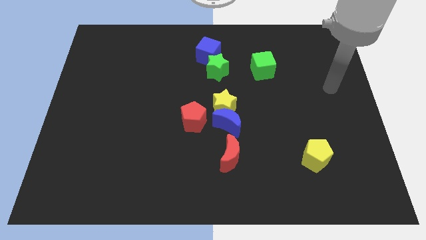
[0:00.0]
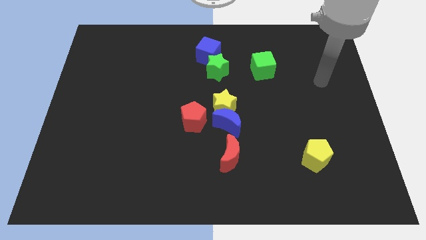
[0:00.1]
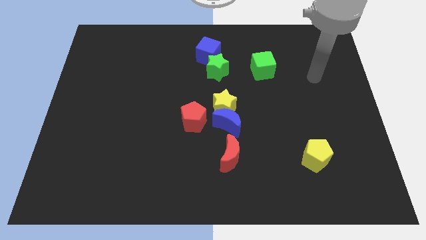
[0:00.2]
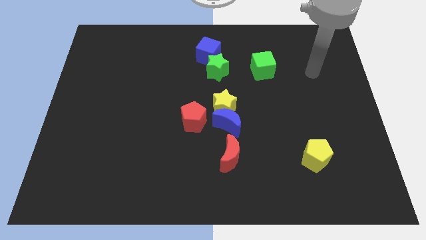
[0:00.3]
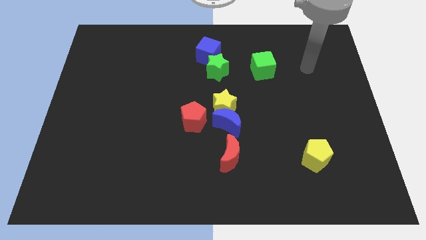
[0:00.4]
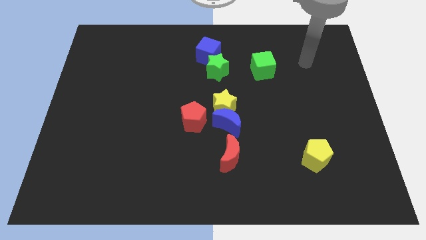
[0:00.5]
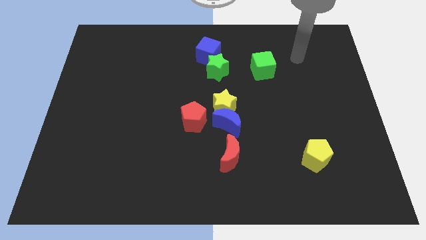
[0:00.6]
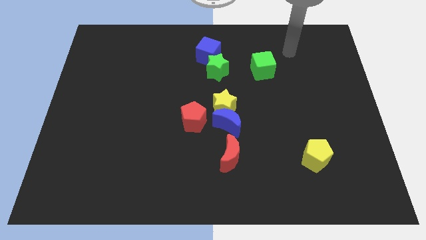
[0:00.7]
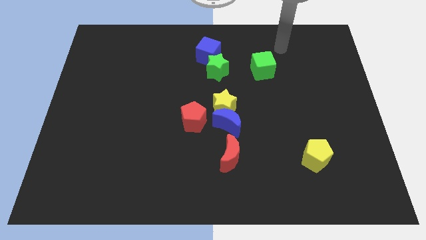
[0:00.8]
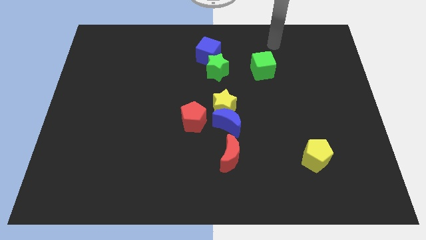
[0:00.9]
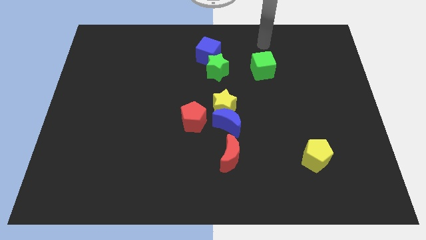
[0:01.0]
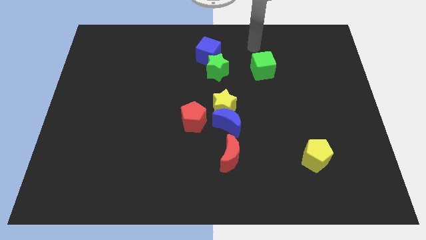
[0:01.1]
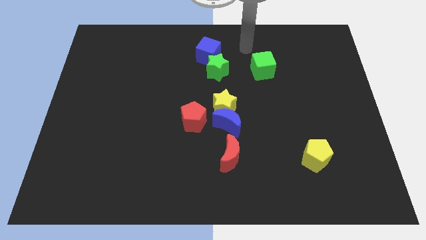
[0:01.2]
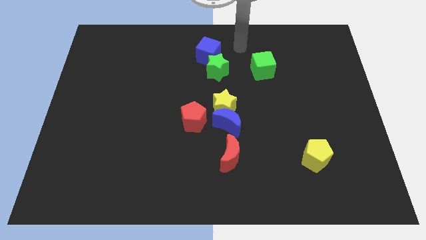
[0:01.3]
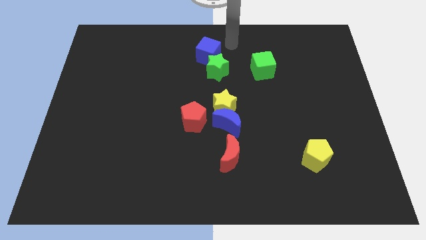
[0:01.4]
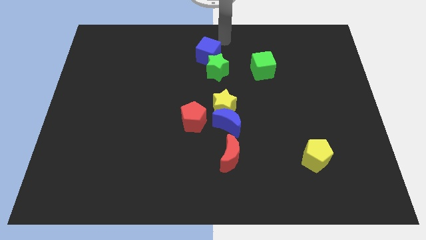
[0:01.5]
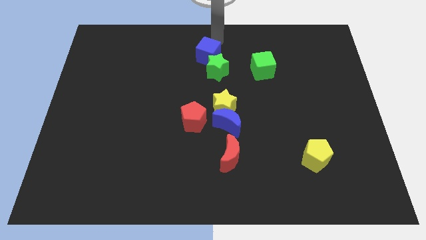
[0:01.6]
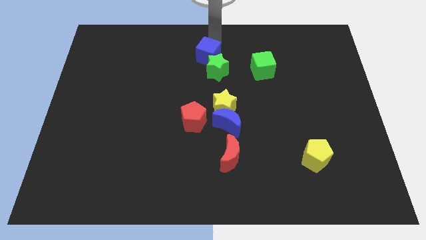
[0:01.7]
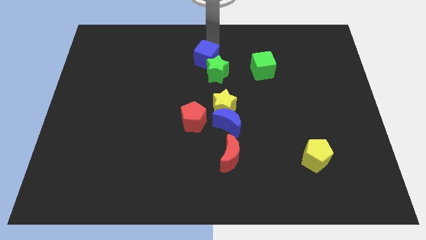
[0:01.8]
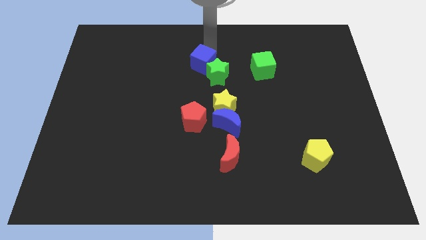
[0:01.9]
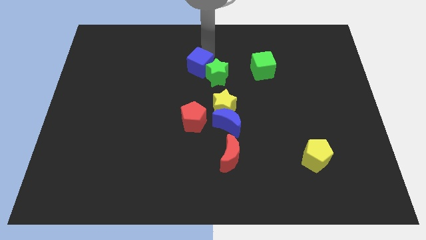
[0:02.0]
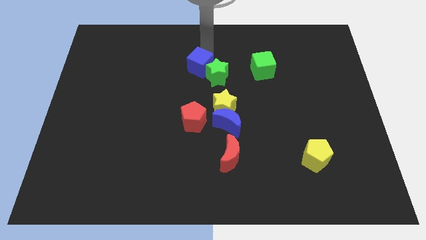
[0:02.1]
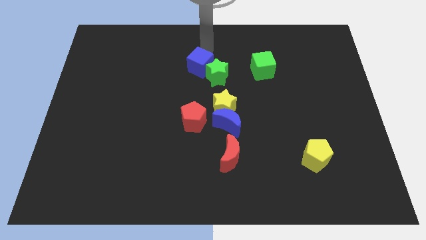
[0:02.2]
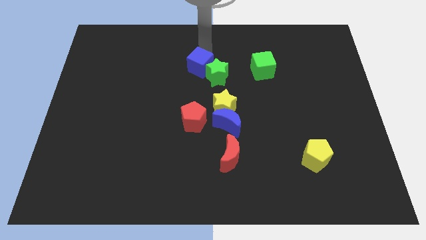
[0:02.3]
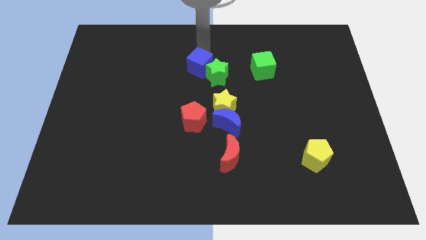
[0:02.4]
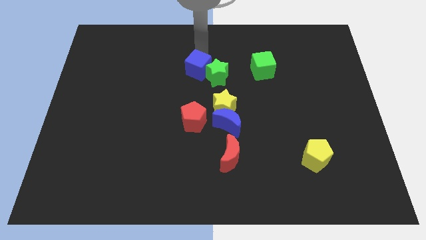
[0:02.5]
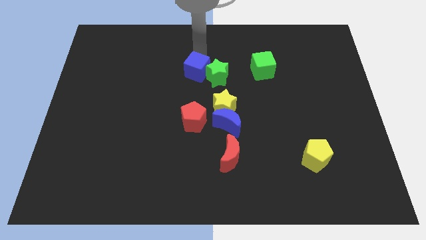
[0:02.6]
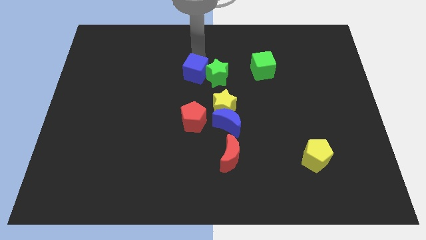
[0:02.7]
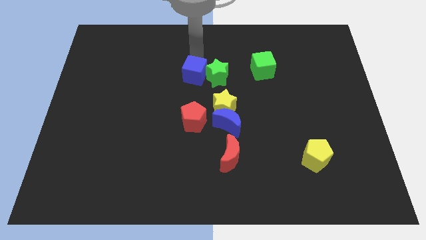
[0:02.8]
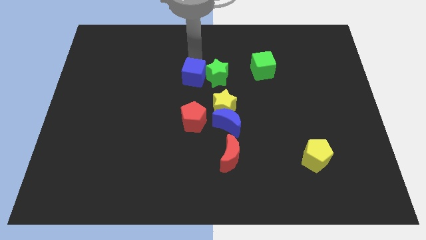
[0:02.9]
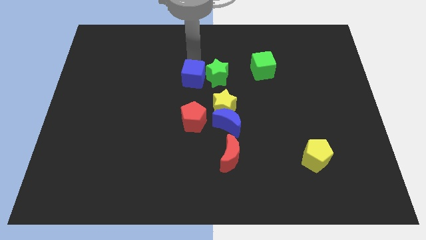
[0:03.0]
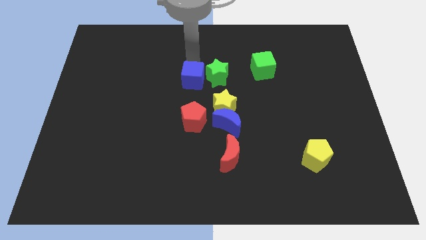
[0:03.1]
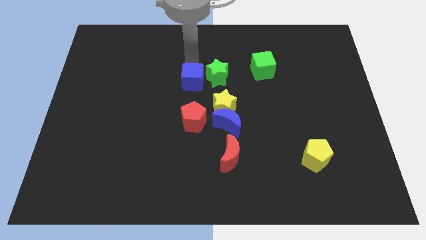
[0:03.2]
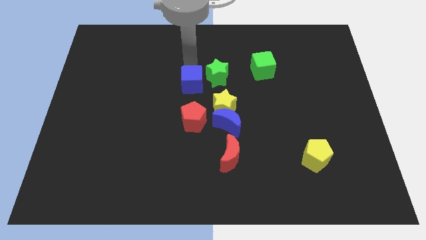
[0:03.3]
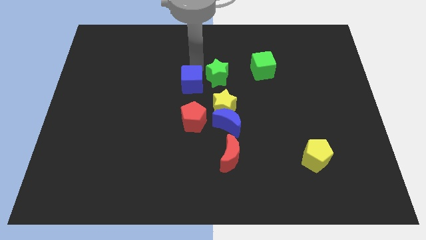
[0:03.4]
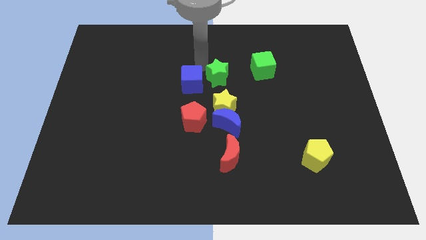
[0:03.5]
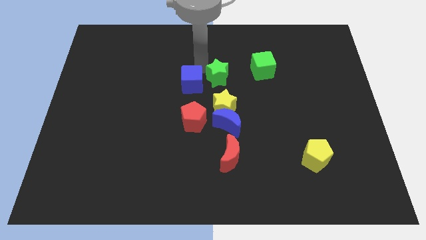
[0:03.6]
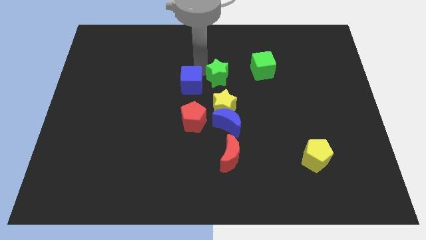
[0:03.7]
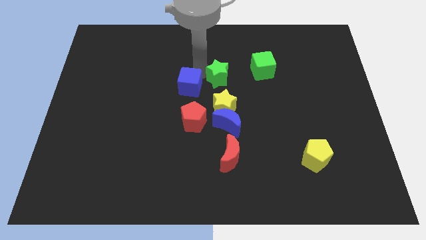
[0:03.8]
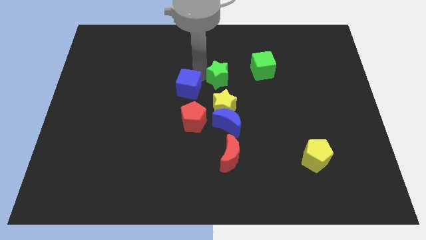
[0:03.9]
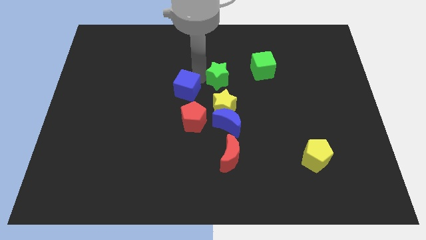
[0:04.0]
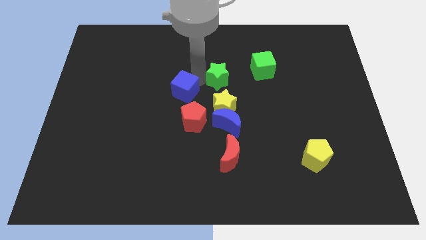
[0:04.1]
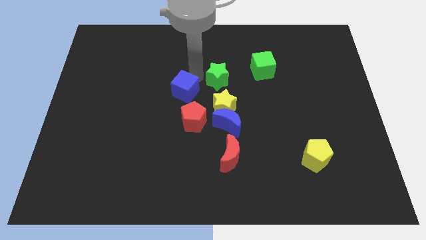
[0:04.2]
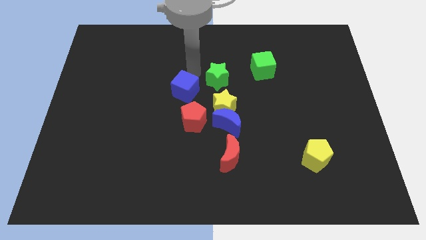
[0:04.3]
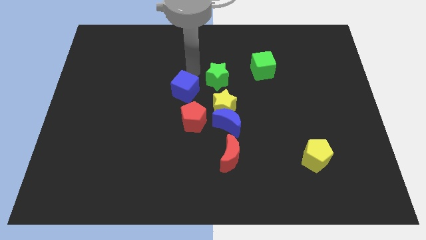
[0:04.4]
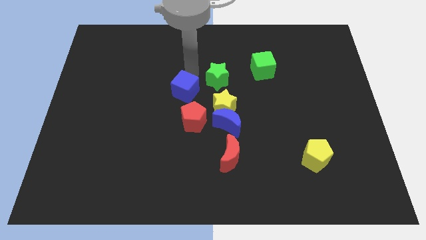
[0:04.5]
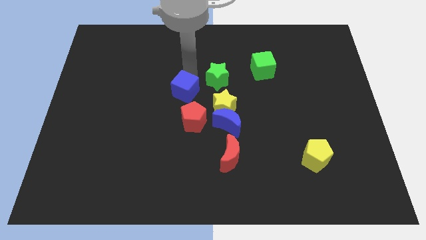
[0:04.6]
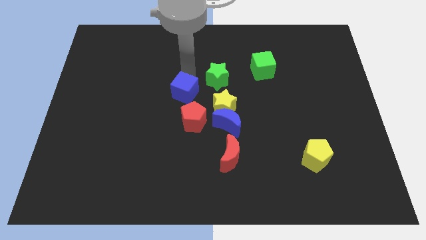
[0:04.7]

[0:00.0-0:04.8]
slide the blue cube left of the yellow star

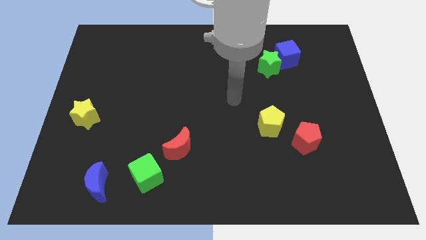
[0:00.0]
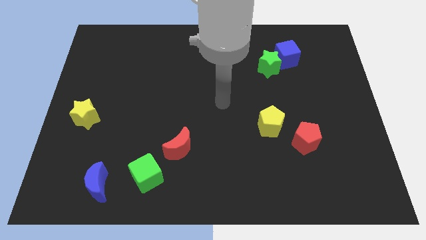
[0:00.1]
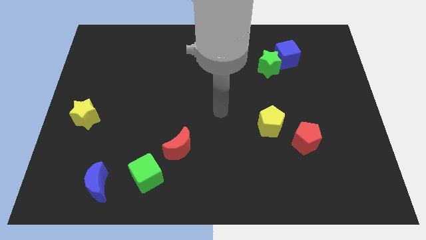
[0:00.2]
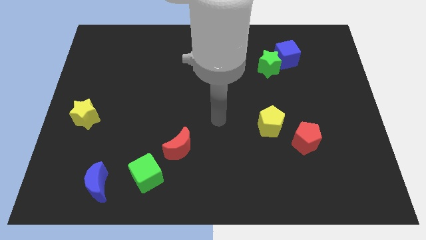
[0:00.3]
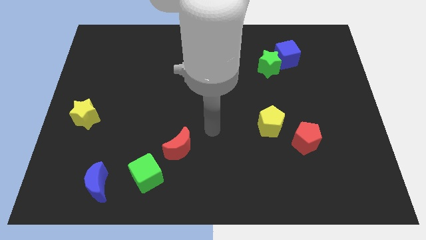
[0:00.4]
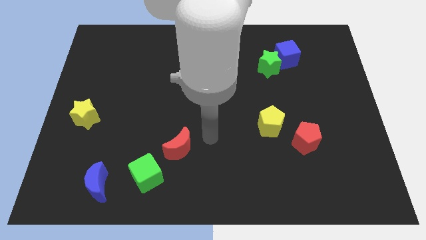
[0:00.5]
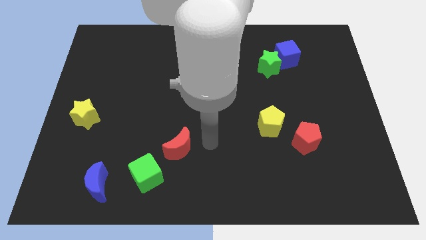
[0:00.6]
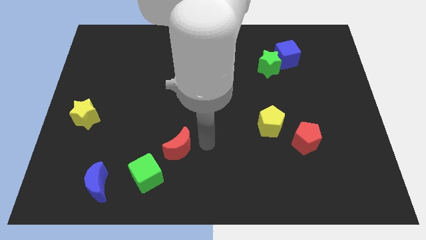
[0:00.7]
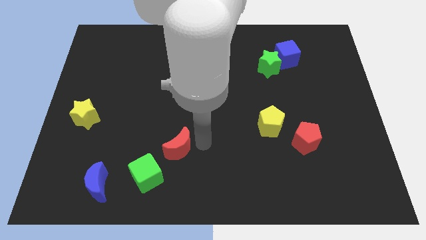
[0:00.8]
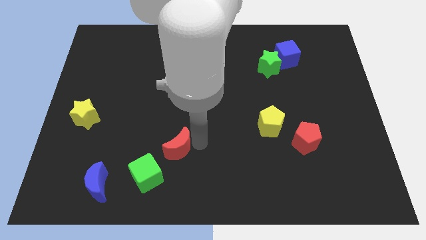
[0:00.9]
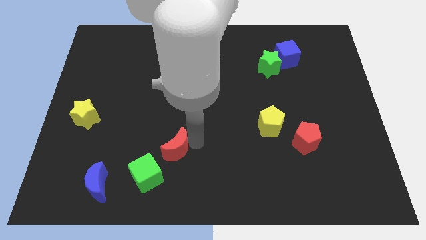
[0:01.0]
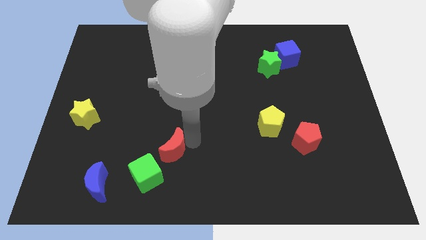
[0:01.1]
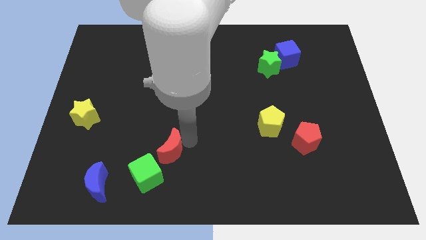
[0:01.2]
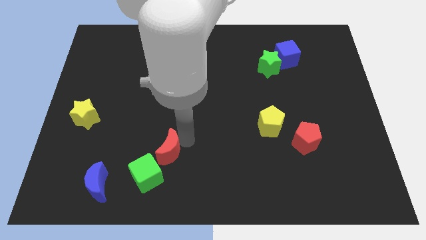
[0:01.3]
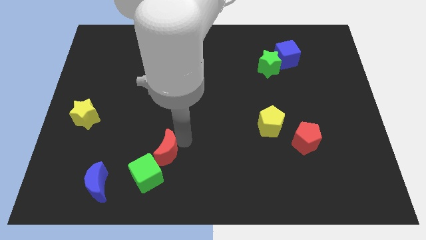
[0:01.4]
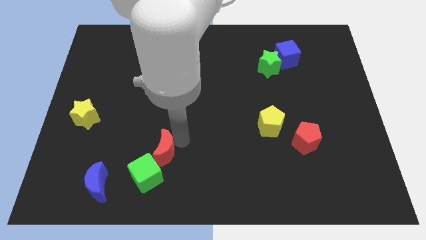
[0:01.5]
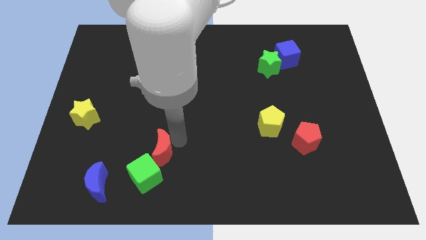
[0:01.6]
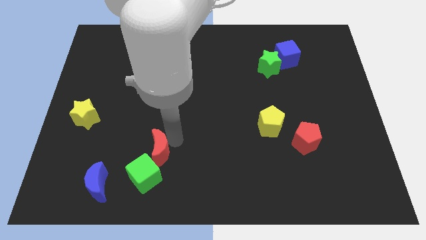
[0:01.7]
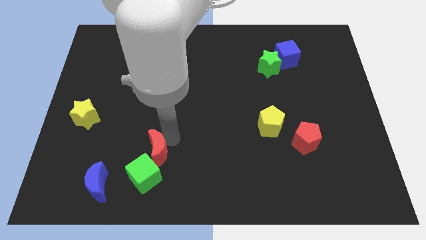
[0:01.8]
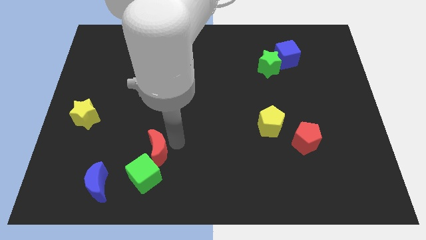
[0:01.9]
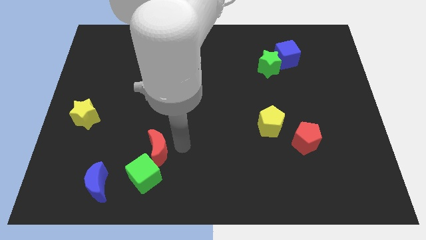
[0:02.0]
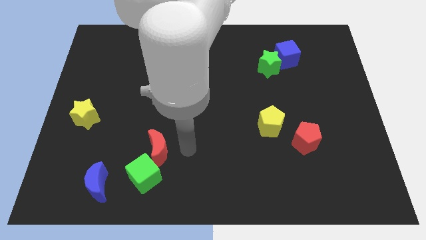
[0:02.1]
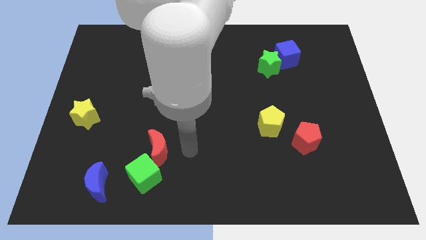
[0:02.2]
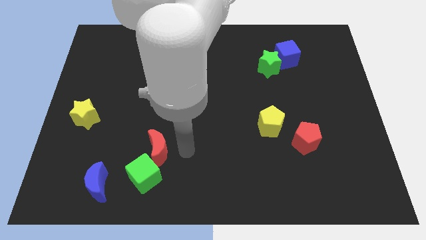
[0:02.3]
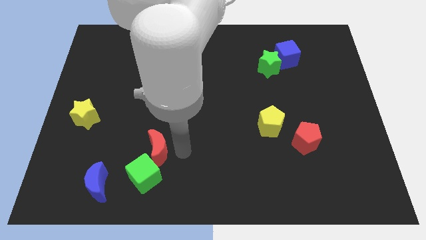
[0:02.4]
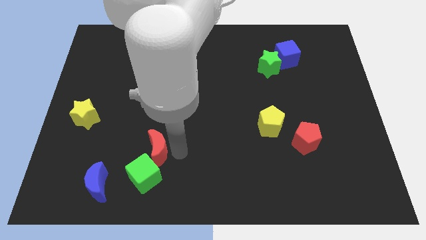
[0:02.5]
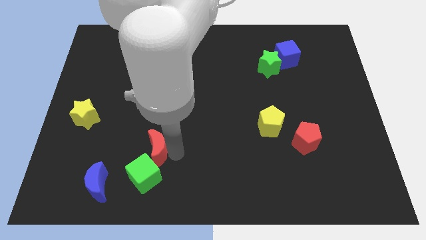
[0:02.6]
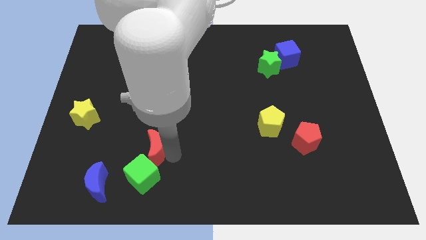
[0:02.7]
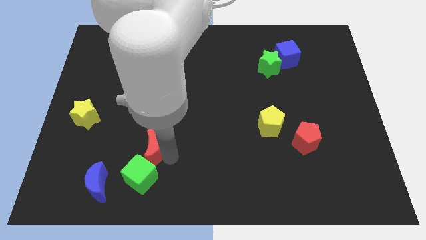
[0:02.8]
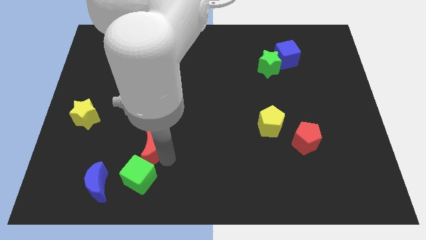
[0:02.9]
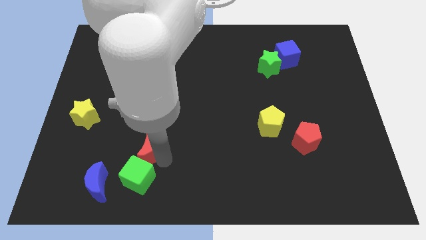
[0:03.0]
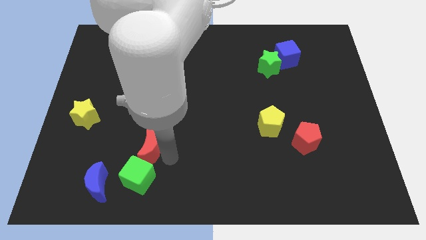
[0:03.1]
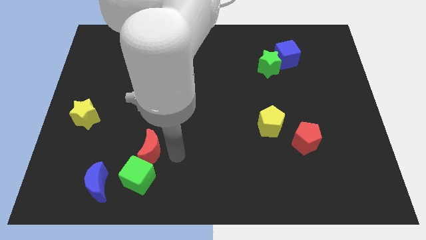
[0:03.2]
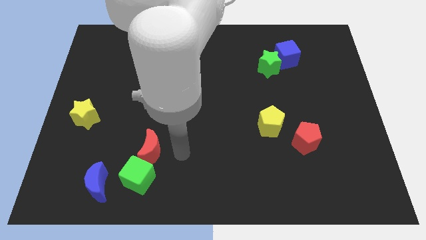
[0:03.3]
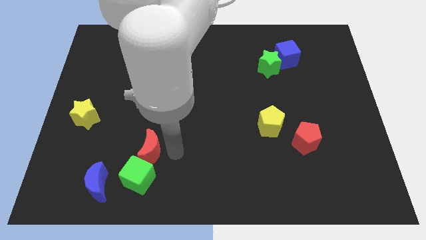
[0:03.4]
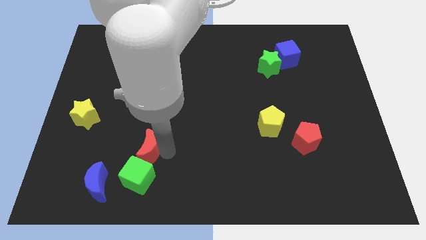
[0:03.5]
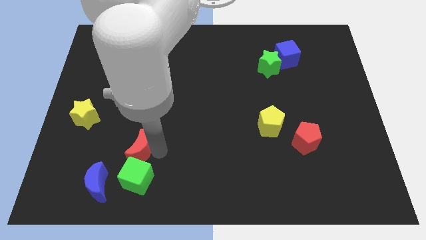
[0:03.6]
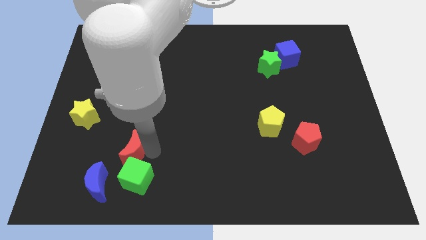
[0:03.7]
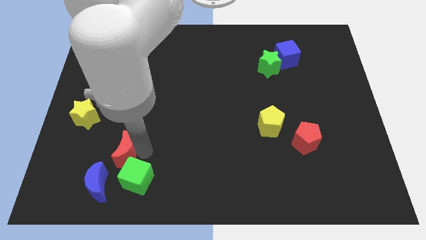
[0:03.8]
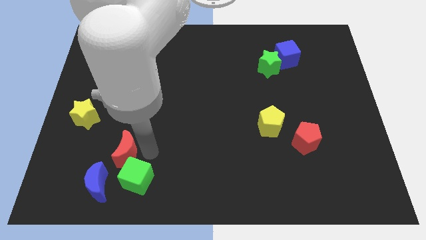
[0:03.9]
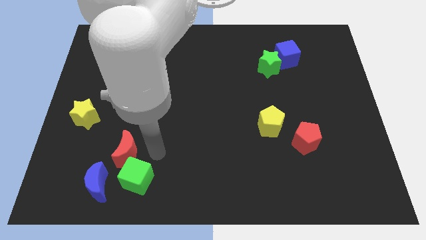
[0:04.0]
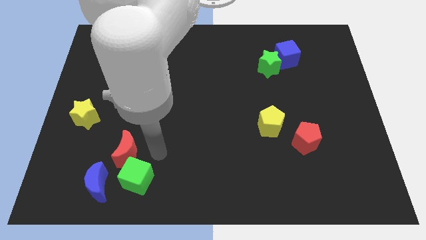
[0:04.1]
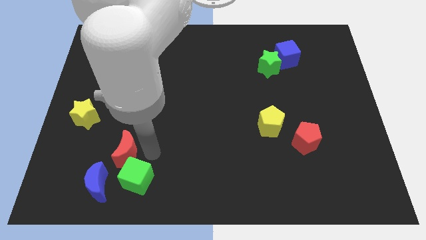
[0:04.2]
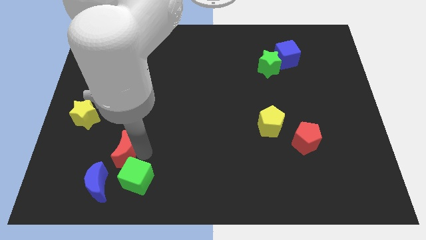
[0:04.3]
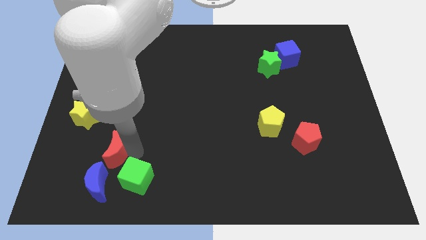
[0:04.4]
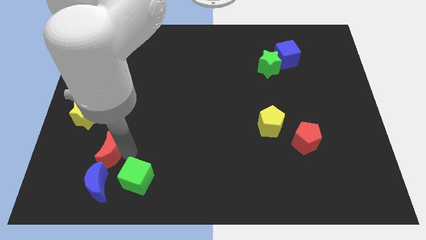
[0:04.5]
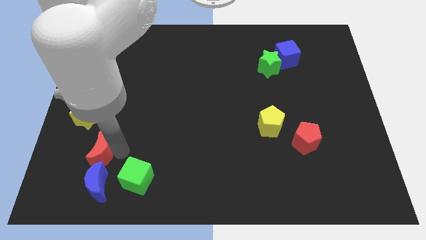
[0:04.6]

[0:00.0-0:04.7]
slide the red moon to the top left side of the blue moon
